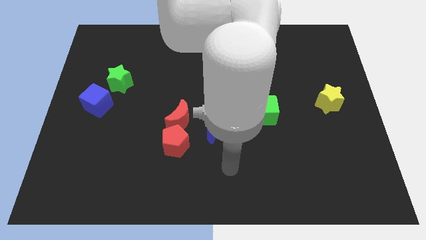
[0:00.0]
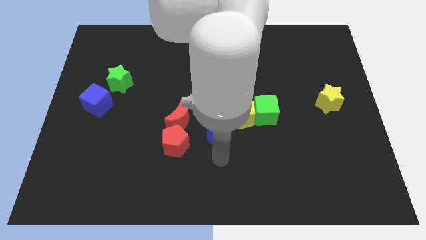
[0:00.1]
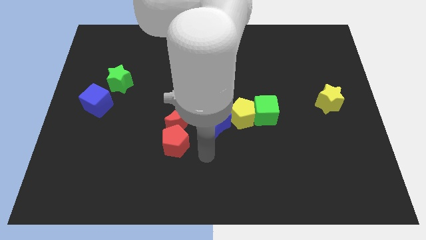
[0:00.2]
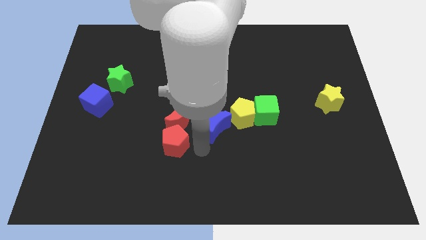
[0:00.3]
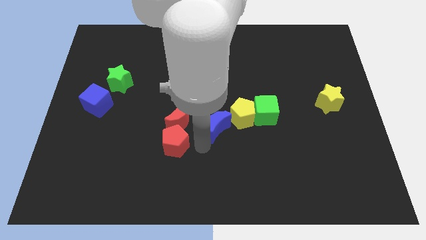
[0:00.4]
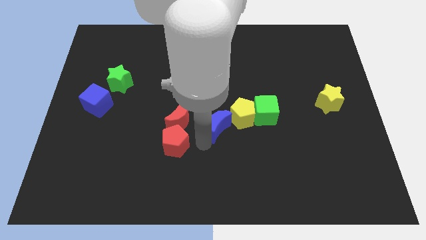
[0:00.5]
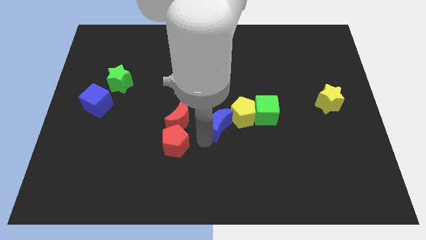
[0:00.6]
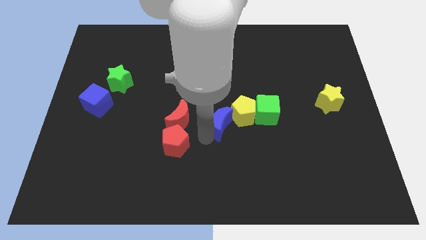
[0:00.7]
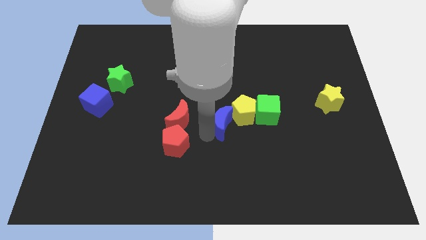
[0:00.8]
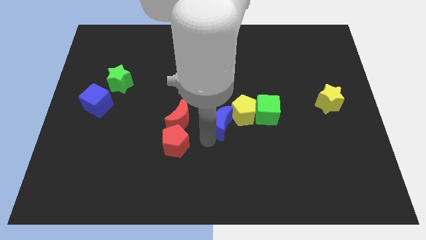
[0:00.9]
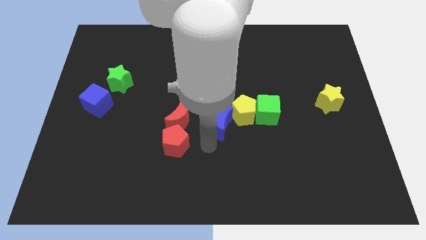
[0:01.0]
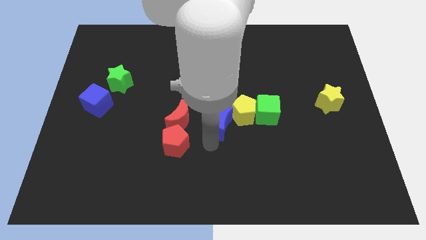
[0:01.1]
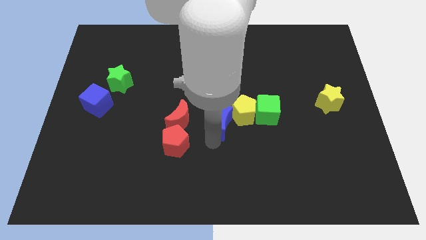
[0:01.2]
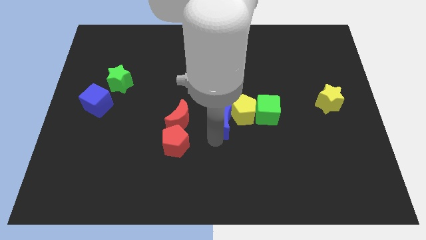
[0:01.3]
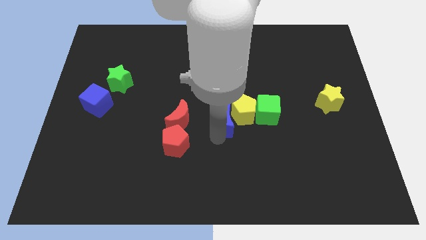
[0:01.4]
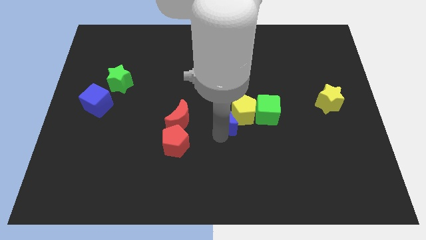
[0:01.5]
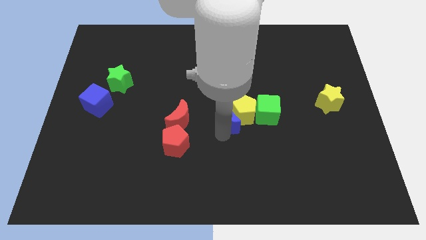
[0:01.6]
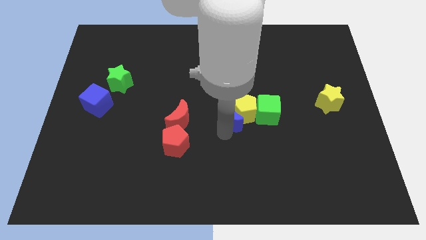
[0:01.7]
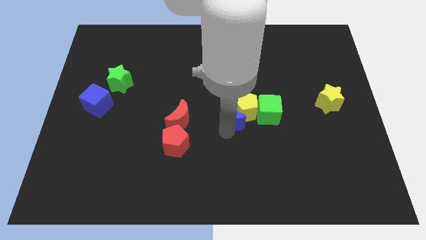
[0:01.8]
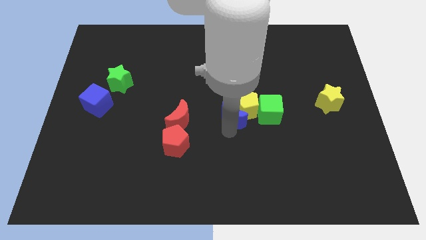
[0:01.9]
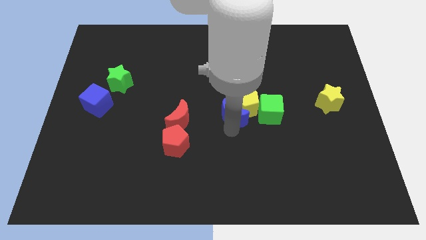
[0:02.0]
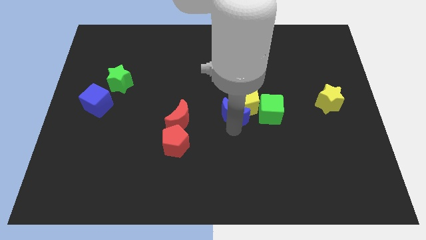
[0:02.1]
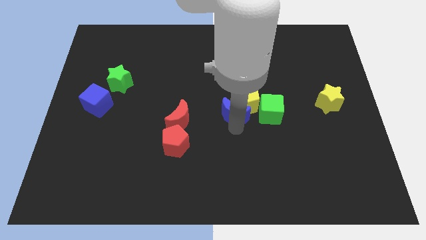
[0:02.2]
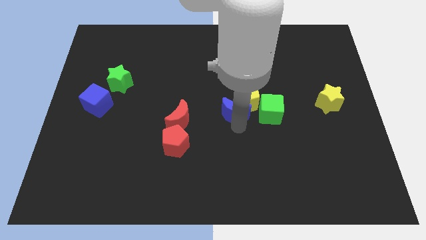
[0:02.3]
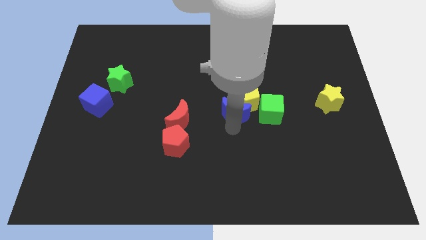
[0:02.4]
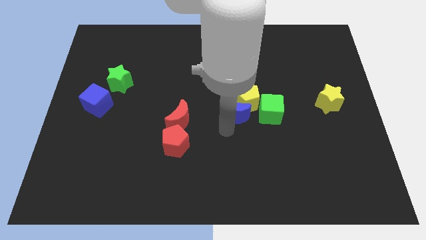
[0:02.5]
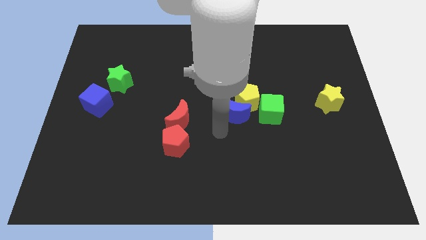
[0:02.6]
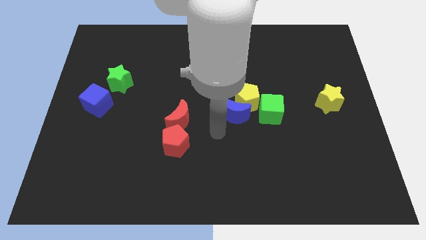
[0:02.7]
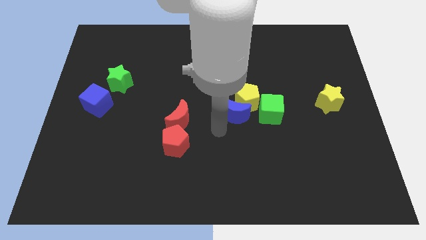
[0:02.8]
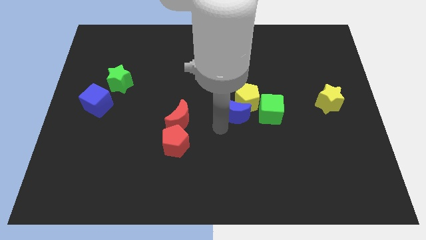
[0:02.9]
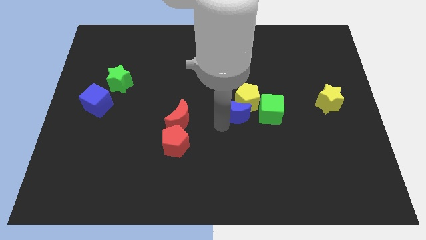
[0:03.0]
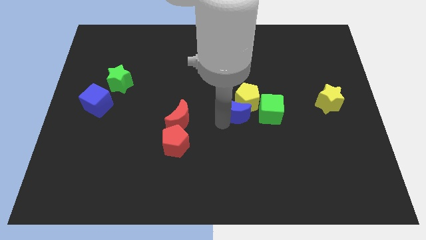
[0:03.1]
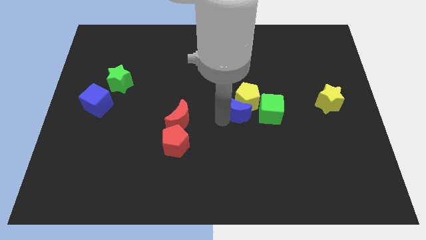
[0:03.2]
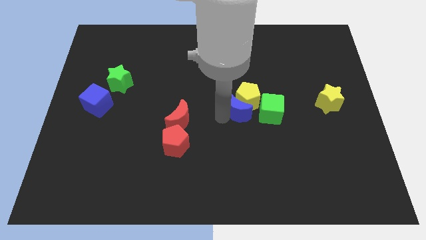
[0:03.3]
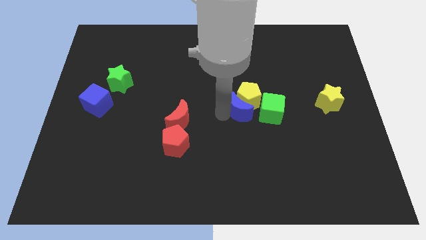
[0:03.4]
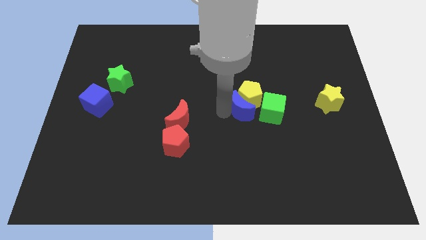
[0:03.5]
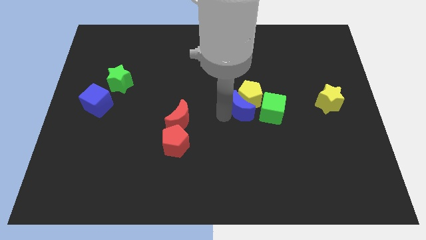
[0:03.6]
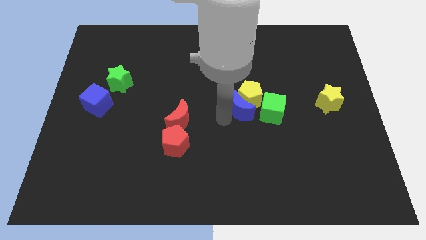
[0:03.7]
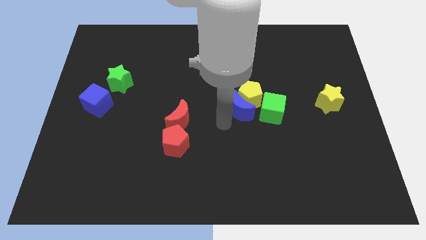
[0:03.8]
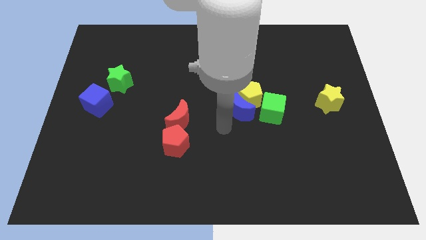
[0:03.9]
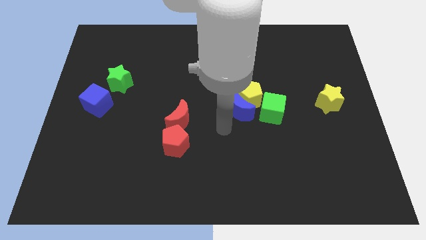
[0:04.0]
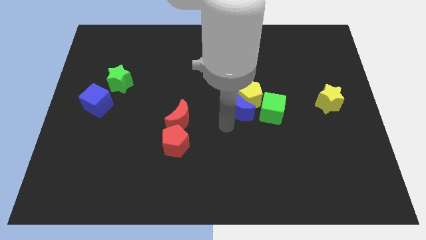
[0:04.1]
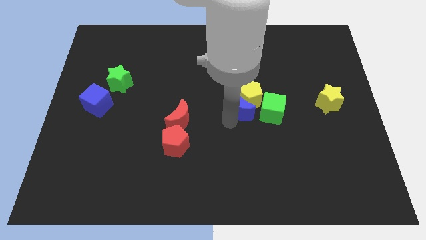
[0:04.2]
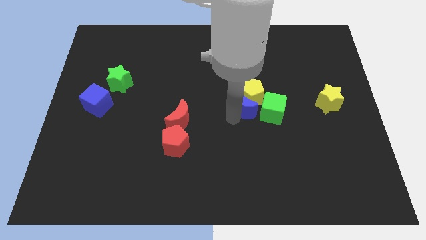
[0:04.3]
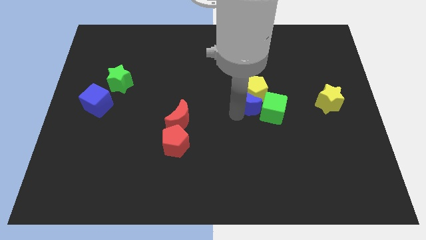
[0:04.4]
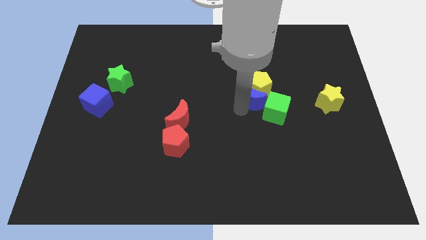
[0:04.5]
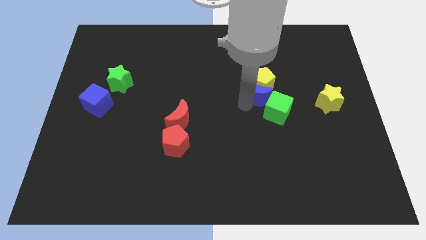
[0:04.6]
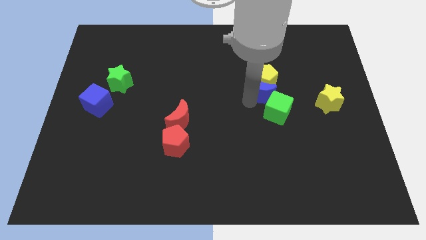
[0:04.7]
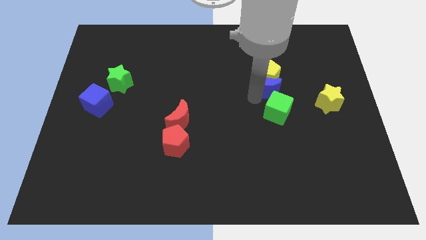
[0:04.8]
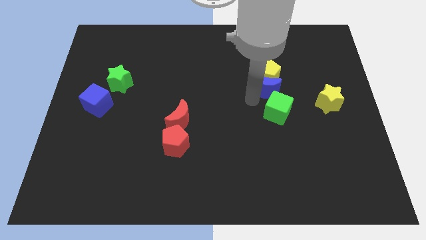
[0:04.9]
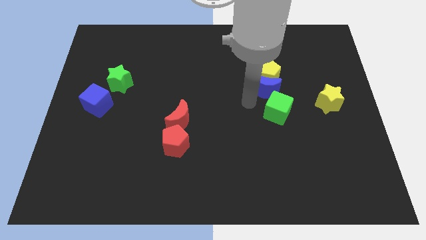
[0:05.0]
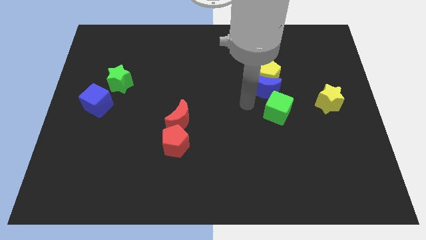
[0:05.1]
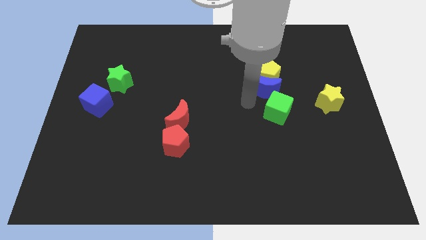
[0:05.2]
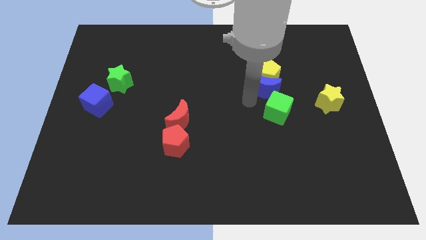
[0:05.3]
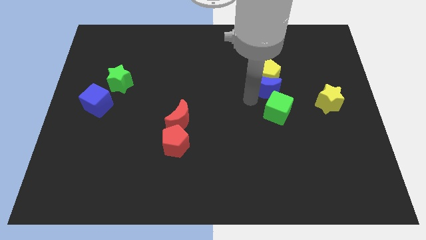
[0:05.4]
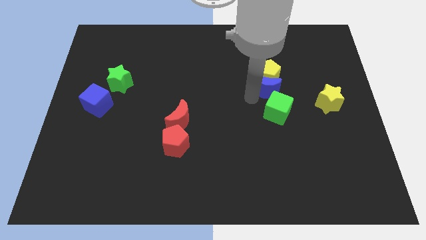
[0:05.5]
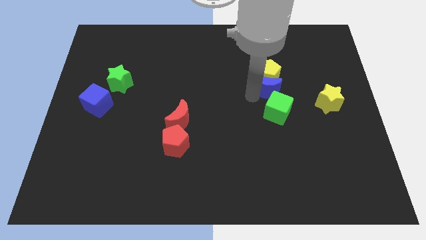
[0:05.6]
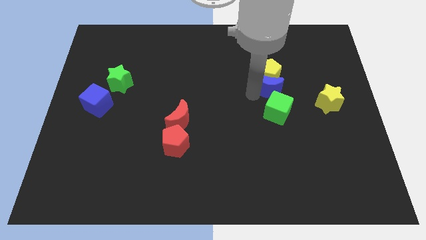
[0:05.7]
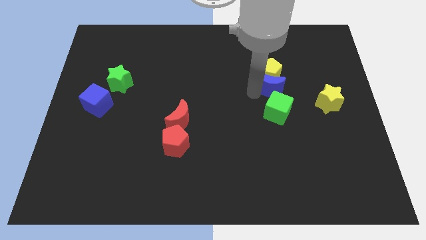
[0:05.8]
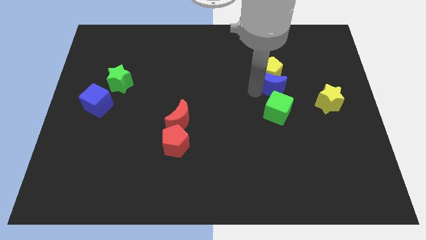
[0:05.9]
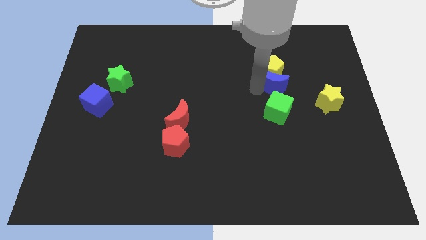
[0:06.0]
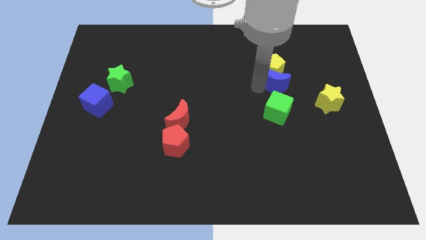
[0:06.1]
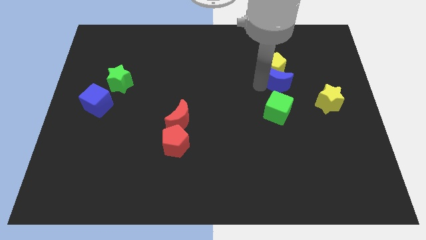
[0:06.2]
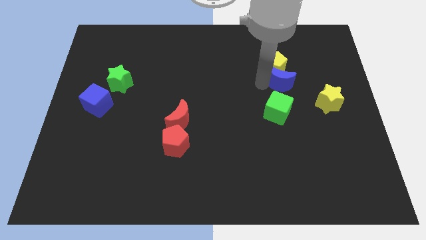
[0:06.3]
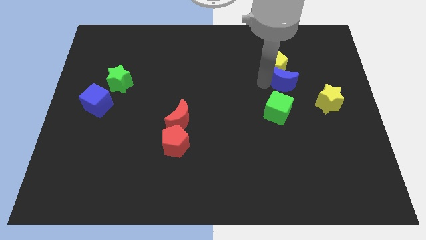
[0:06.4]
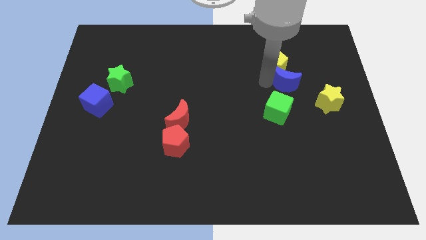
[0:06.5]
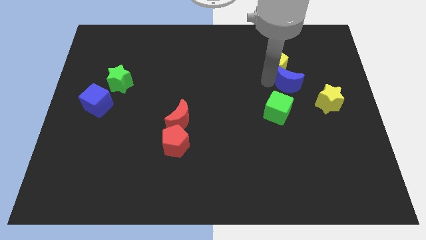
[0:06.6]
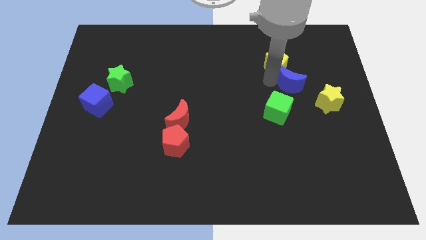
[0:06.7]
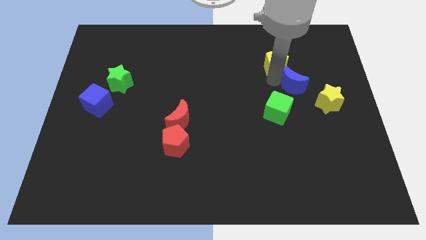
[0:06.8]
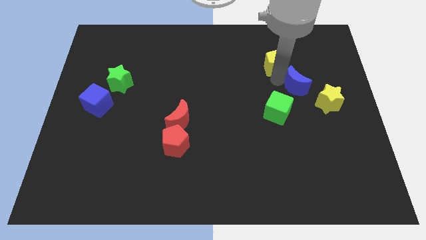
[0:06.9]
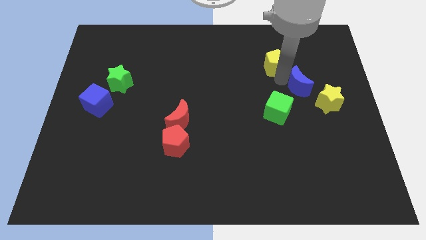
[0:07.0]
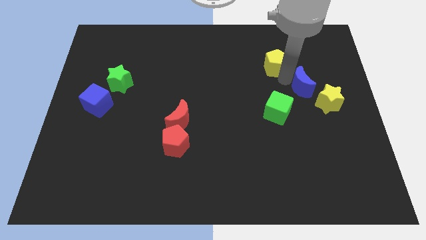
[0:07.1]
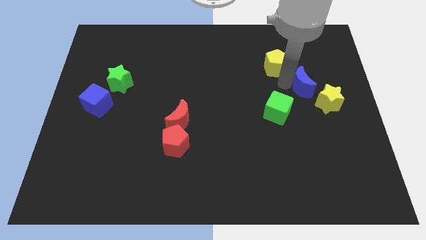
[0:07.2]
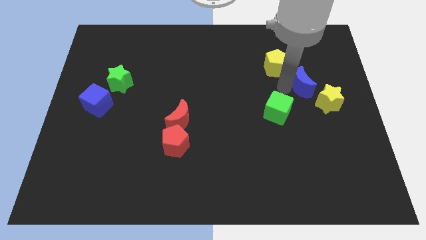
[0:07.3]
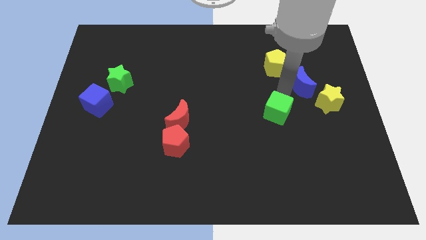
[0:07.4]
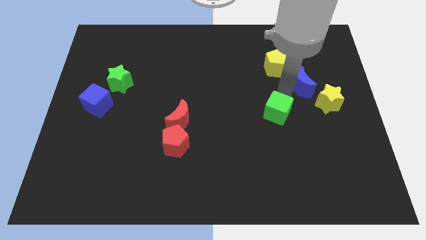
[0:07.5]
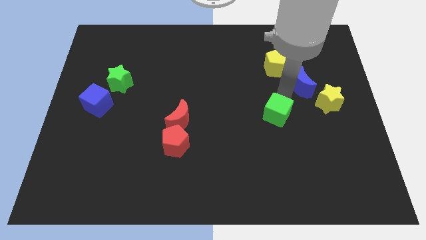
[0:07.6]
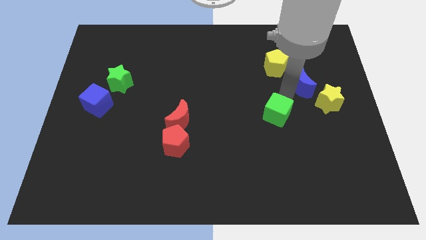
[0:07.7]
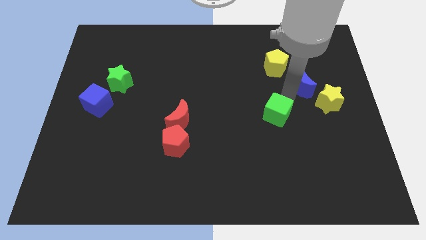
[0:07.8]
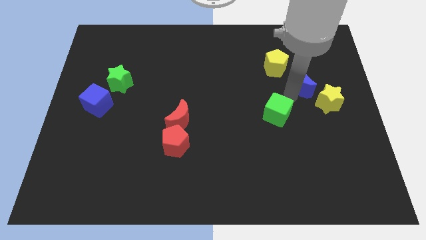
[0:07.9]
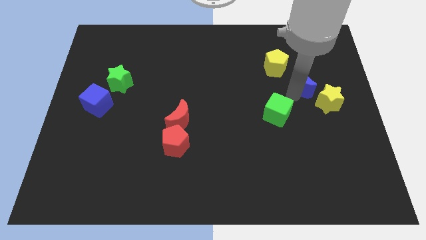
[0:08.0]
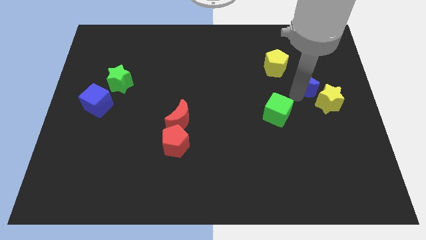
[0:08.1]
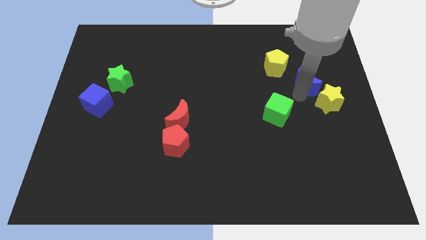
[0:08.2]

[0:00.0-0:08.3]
move the blue moon to the top of the yellow star
